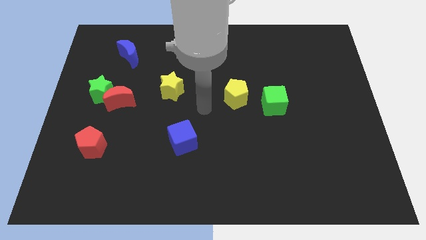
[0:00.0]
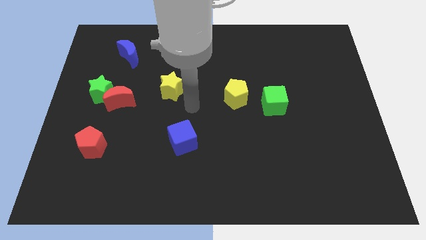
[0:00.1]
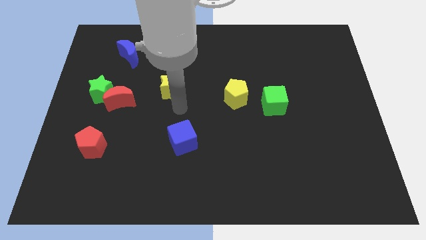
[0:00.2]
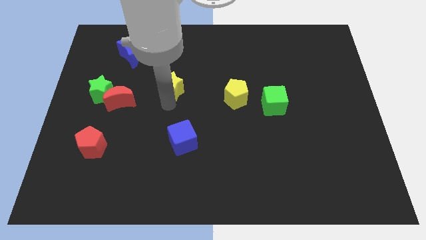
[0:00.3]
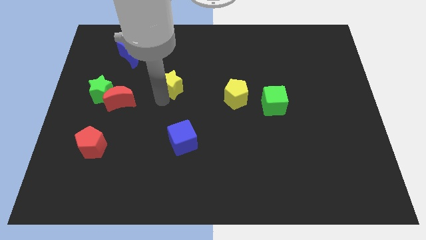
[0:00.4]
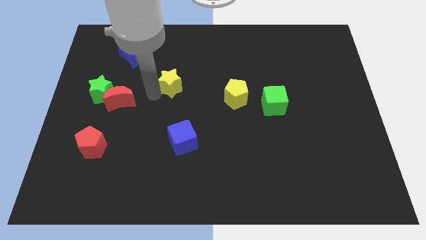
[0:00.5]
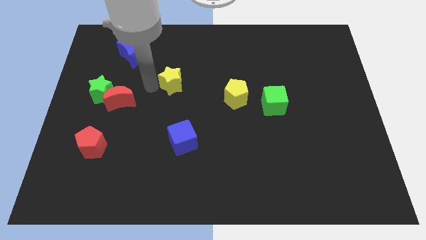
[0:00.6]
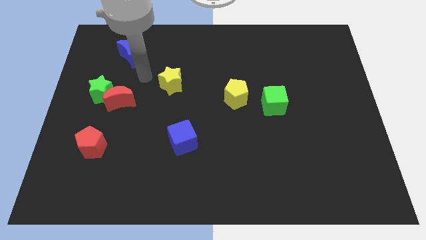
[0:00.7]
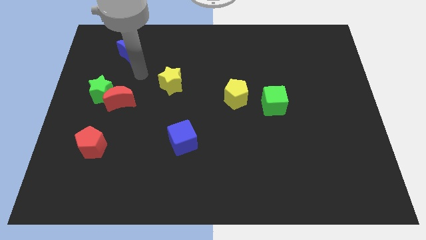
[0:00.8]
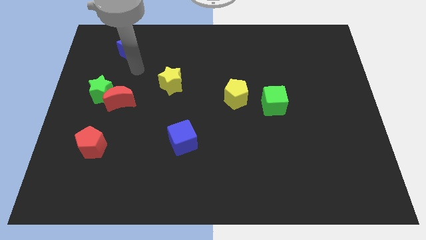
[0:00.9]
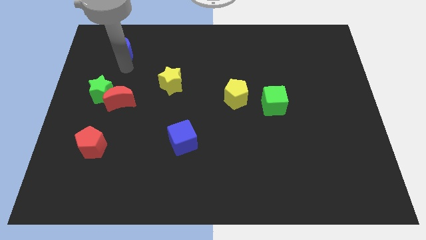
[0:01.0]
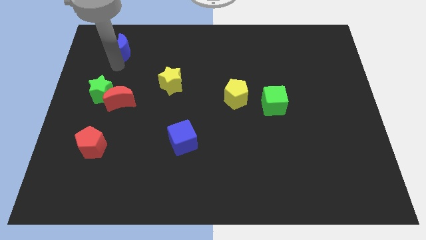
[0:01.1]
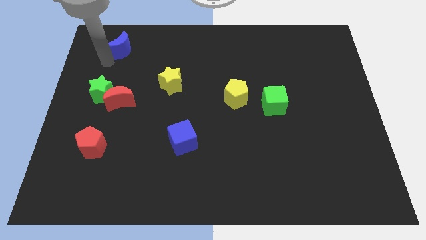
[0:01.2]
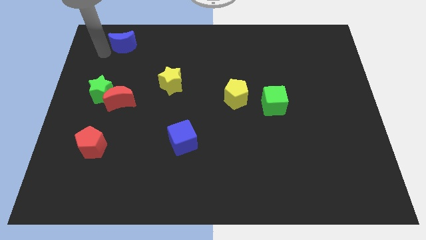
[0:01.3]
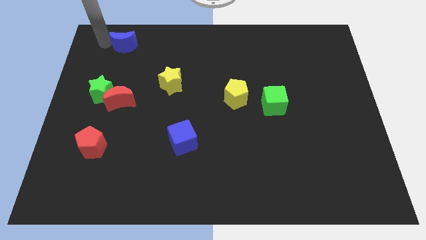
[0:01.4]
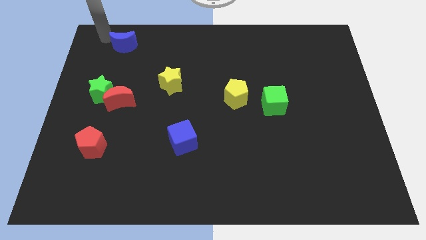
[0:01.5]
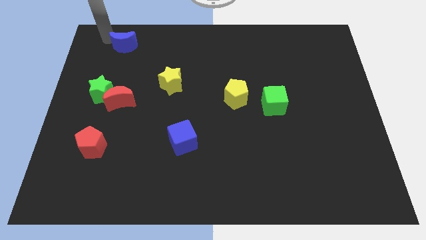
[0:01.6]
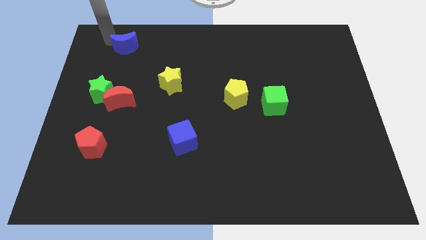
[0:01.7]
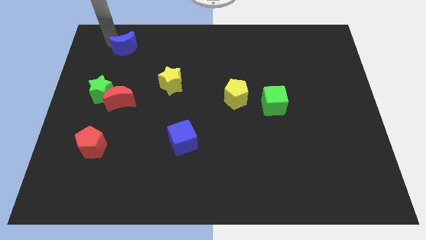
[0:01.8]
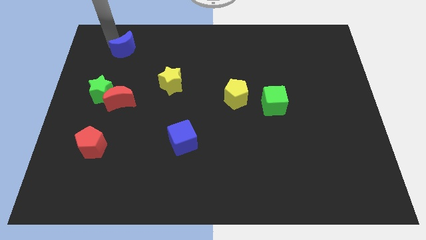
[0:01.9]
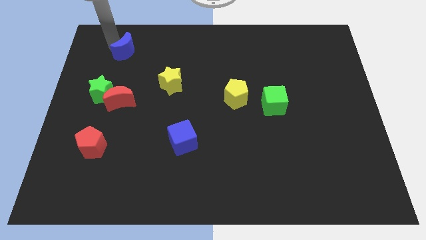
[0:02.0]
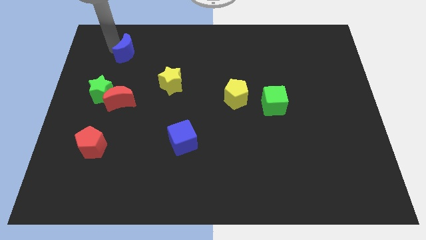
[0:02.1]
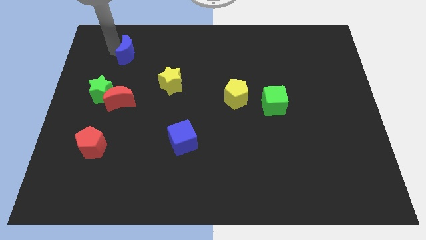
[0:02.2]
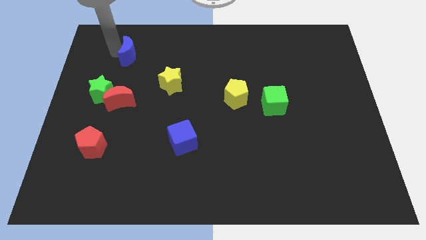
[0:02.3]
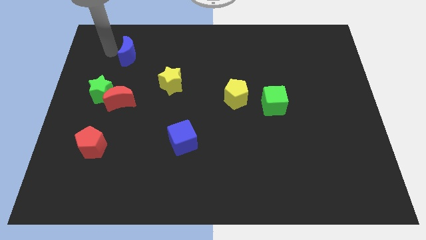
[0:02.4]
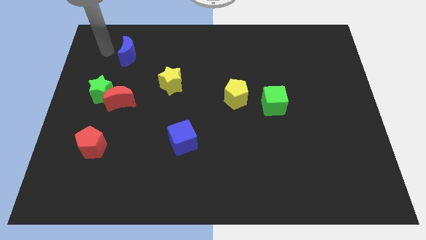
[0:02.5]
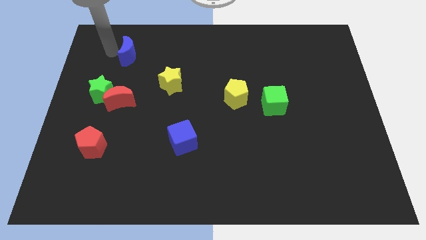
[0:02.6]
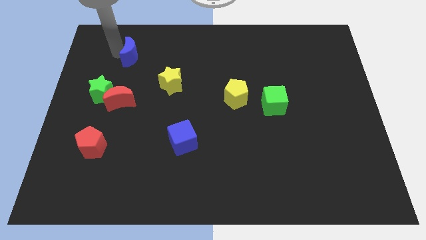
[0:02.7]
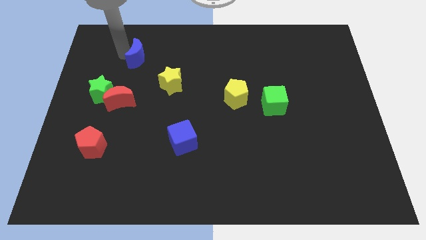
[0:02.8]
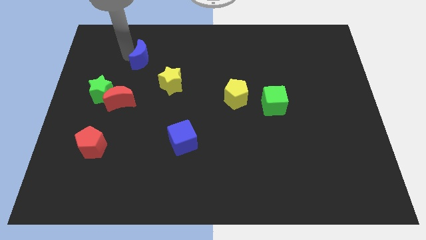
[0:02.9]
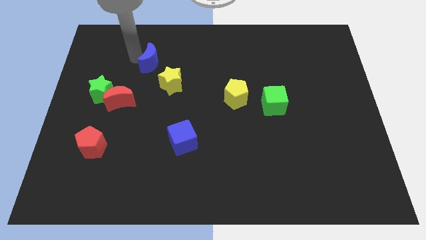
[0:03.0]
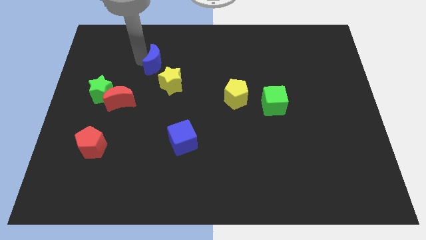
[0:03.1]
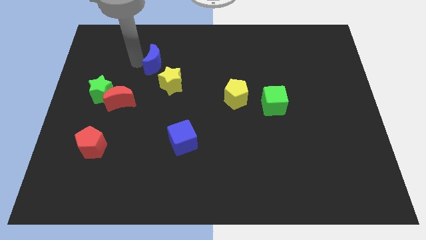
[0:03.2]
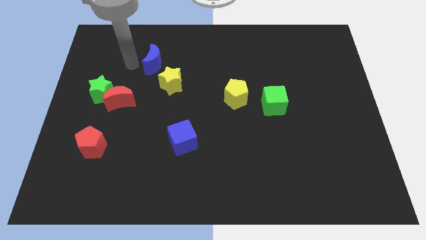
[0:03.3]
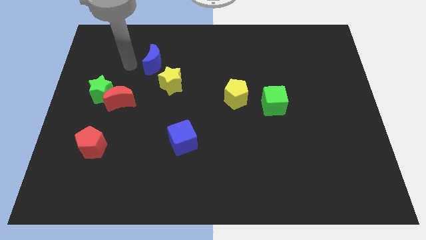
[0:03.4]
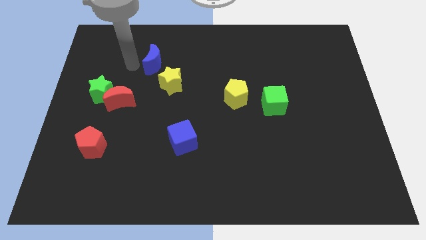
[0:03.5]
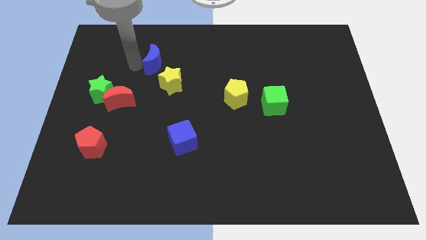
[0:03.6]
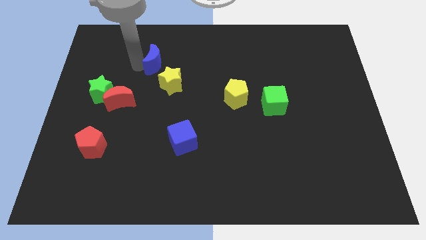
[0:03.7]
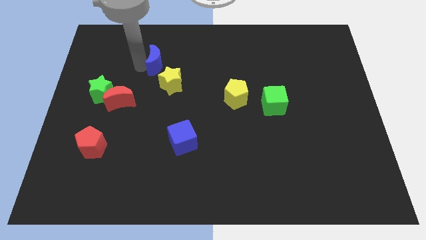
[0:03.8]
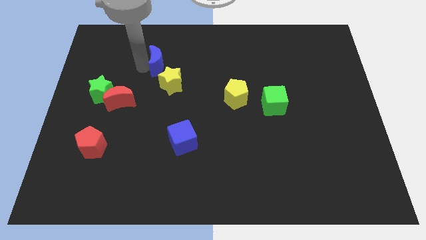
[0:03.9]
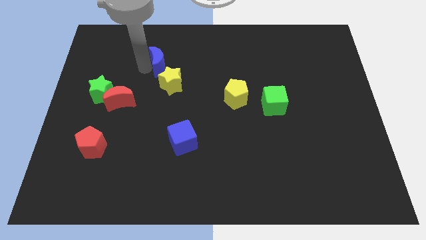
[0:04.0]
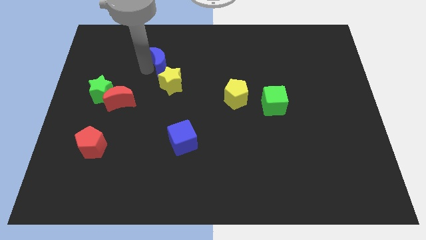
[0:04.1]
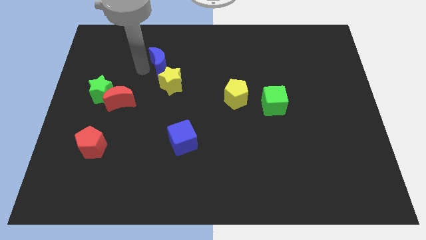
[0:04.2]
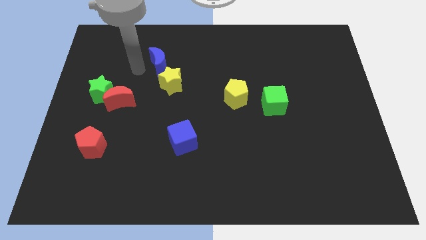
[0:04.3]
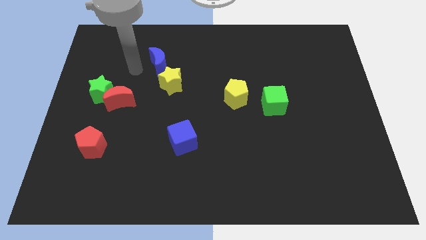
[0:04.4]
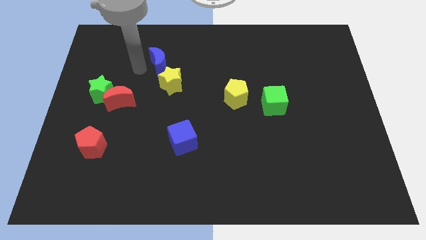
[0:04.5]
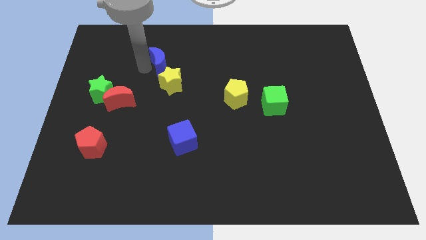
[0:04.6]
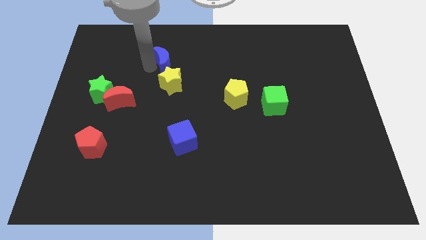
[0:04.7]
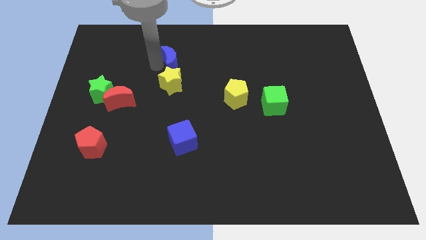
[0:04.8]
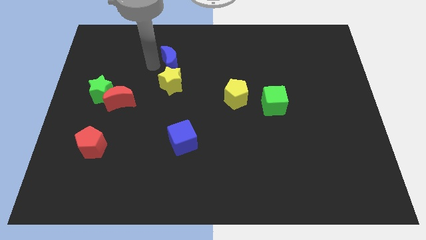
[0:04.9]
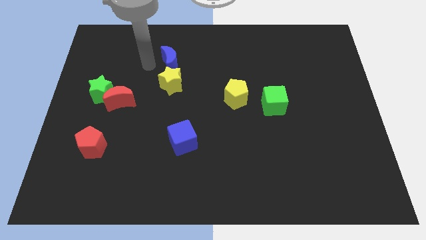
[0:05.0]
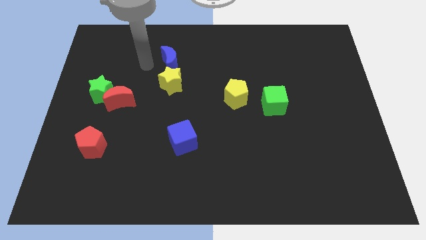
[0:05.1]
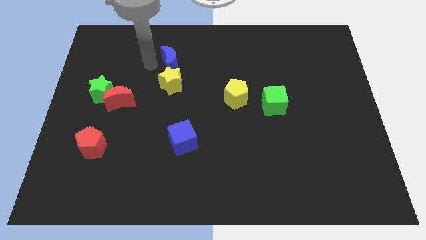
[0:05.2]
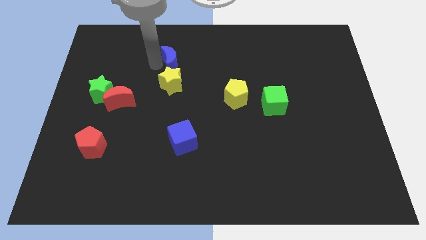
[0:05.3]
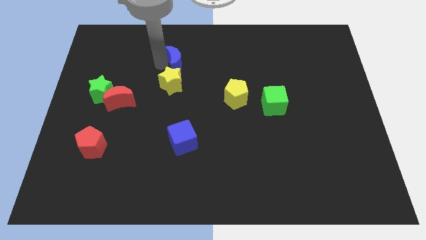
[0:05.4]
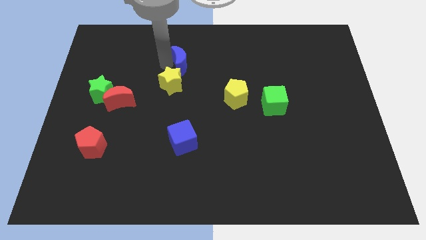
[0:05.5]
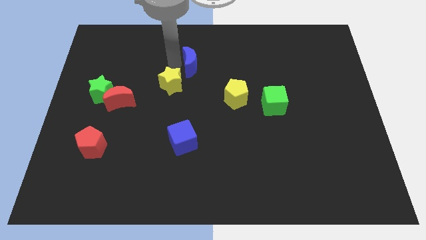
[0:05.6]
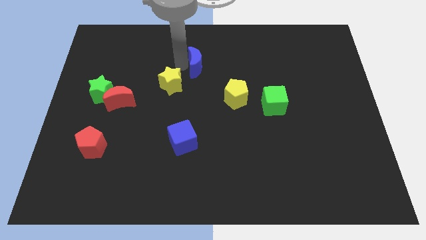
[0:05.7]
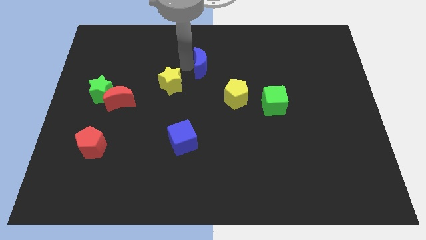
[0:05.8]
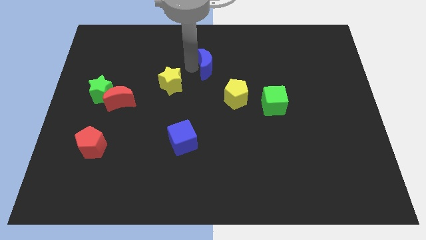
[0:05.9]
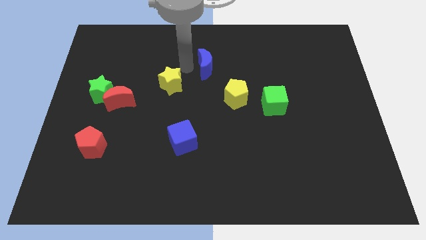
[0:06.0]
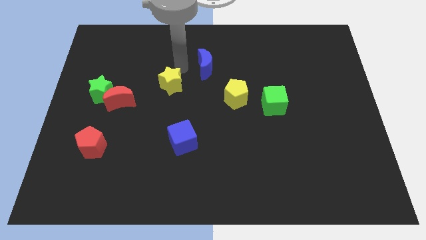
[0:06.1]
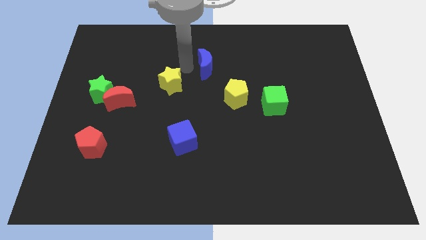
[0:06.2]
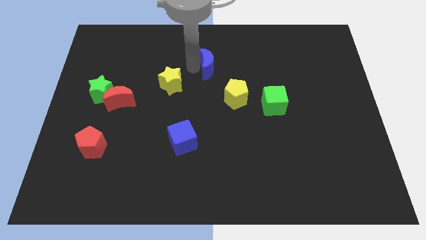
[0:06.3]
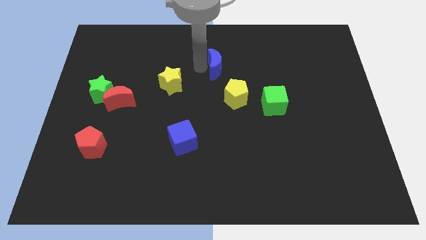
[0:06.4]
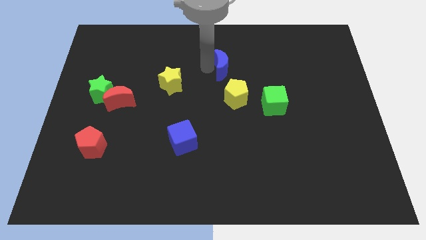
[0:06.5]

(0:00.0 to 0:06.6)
put the blue moon to the top side of the yellow pentagon

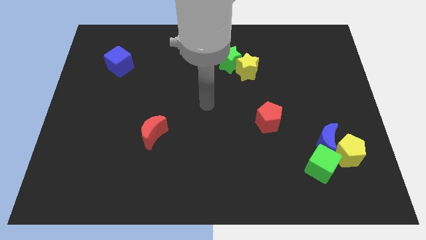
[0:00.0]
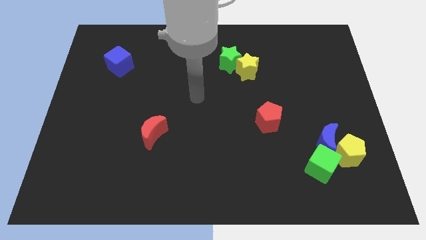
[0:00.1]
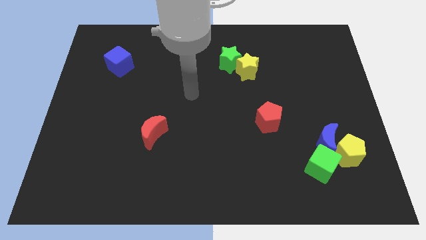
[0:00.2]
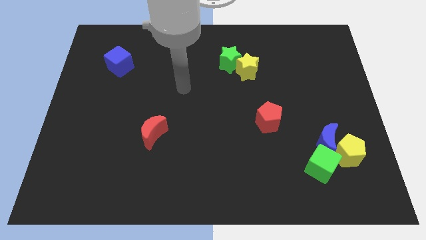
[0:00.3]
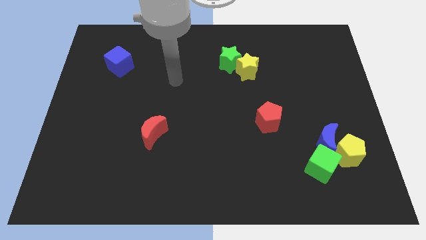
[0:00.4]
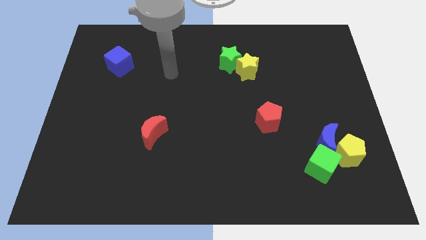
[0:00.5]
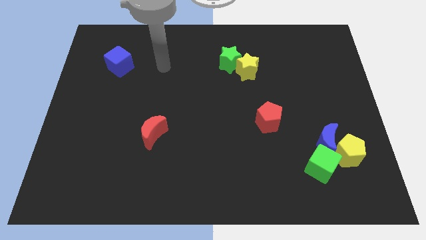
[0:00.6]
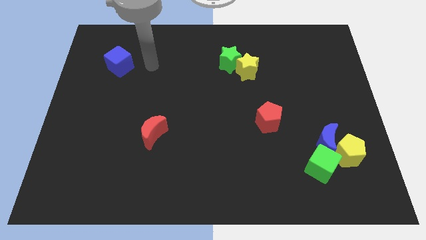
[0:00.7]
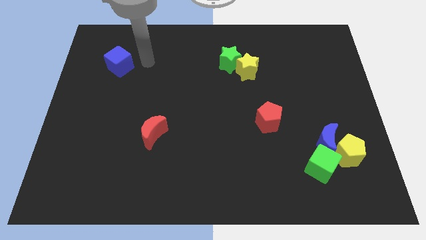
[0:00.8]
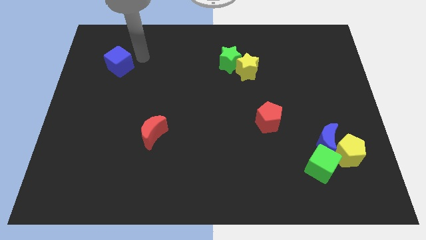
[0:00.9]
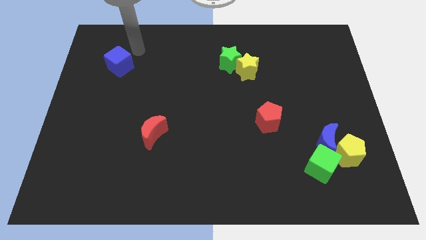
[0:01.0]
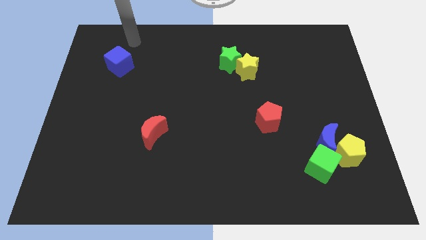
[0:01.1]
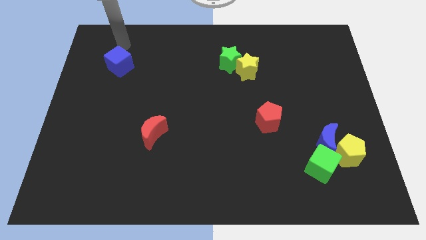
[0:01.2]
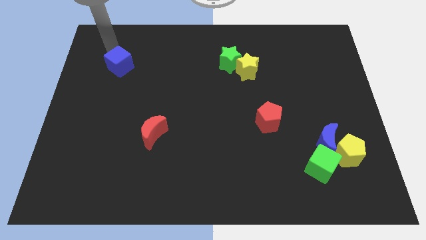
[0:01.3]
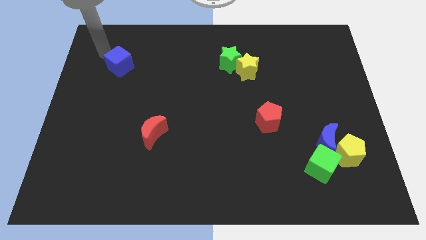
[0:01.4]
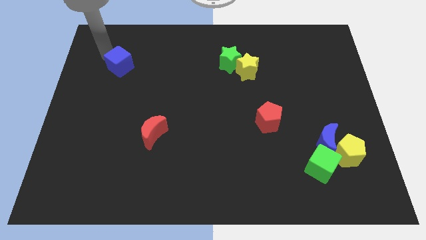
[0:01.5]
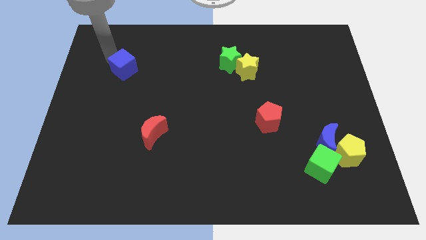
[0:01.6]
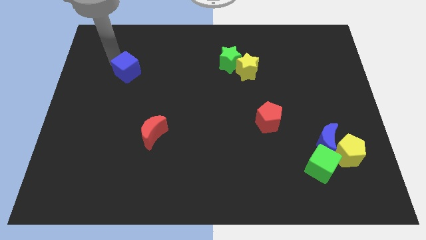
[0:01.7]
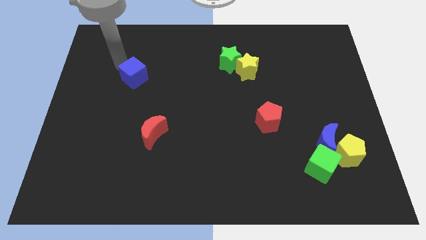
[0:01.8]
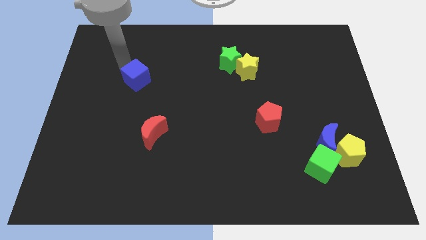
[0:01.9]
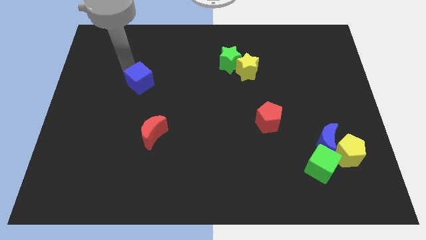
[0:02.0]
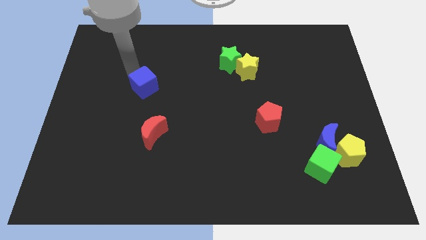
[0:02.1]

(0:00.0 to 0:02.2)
slide the blue cube to the top of the red moon

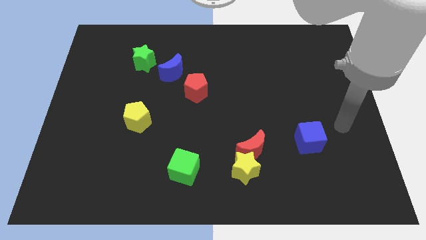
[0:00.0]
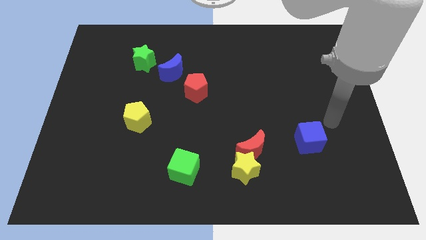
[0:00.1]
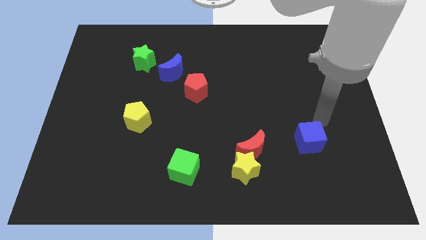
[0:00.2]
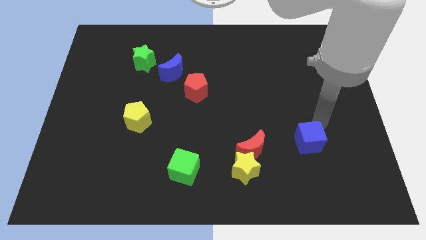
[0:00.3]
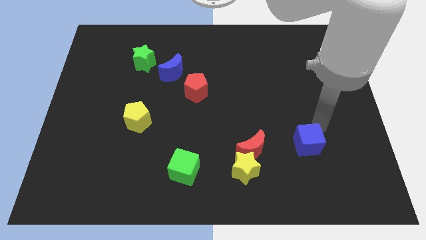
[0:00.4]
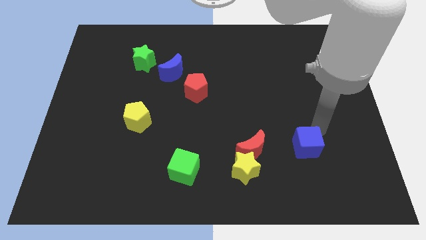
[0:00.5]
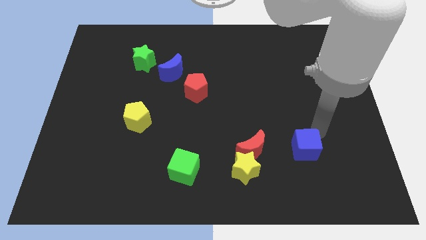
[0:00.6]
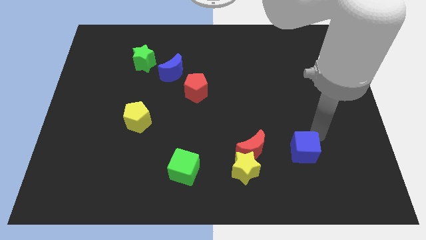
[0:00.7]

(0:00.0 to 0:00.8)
put the blue cube right of the yellow star
